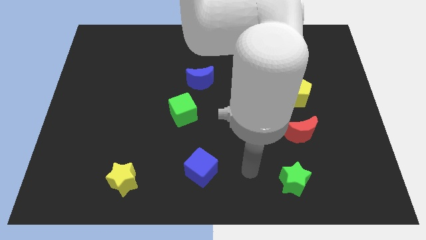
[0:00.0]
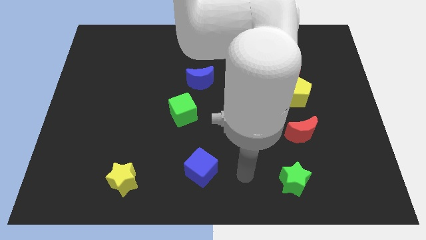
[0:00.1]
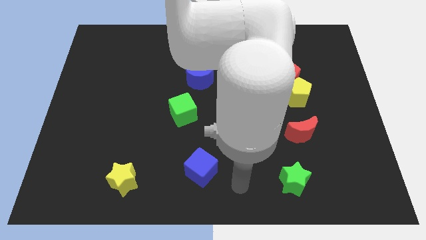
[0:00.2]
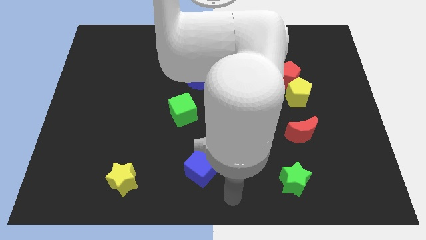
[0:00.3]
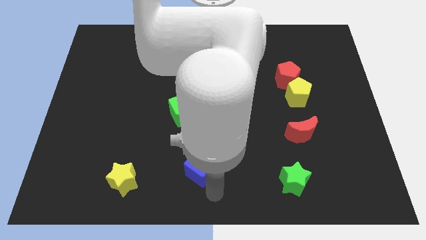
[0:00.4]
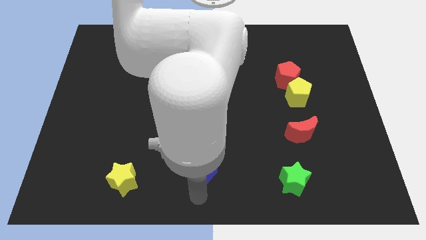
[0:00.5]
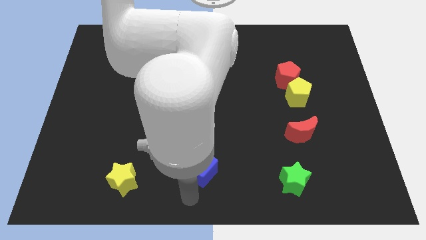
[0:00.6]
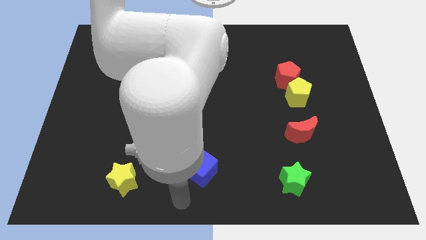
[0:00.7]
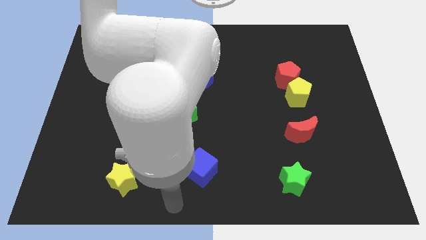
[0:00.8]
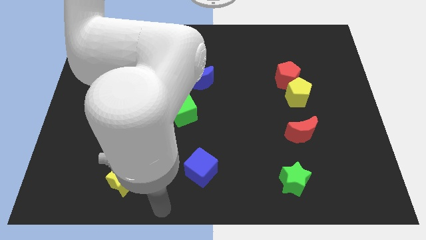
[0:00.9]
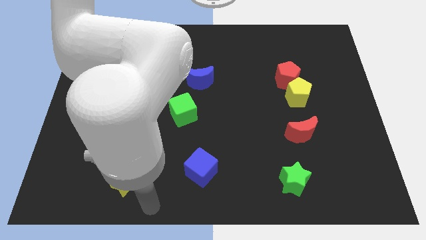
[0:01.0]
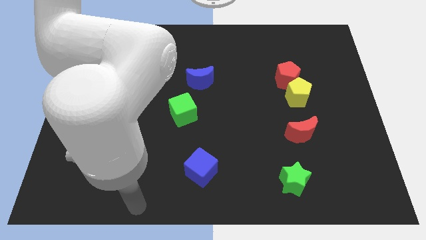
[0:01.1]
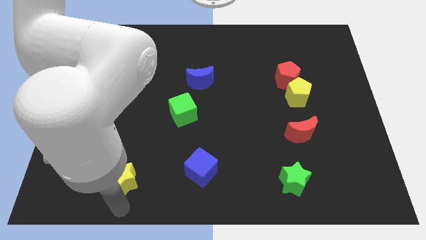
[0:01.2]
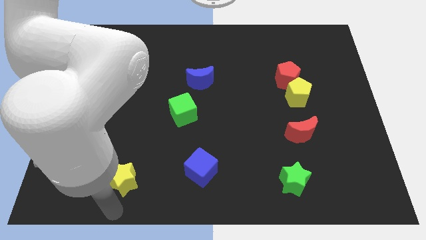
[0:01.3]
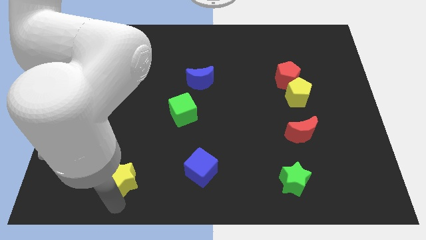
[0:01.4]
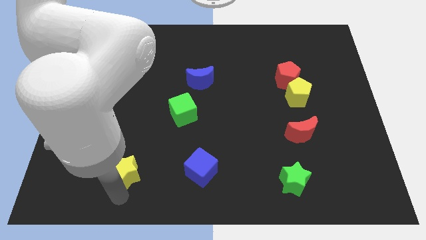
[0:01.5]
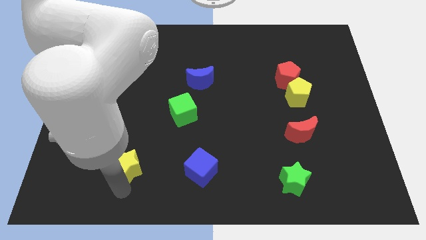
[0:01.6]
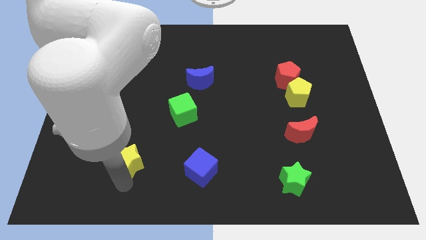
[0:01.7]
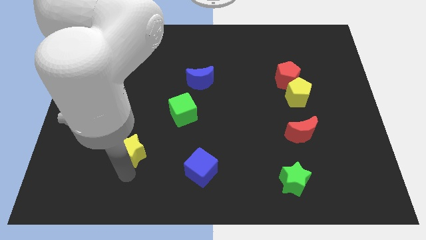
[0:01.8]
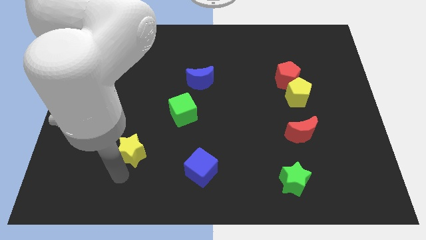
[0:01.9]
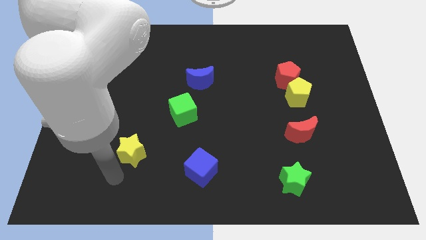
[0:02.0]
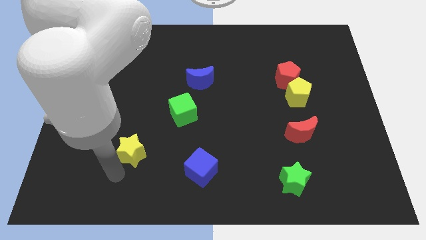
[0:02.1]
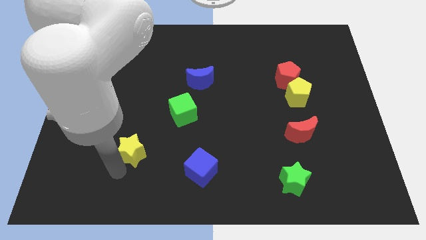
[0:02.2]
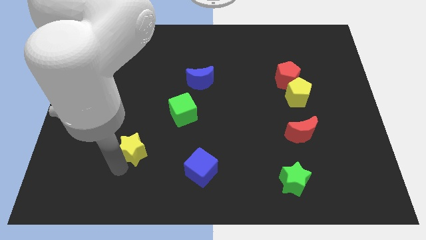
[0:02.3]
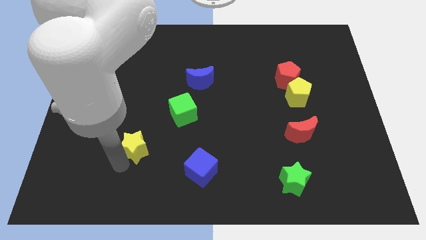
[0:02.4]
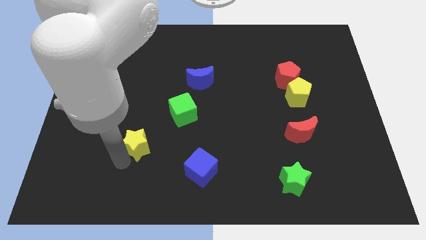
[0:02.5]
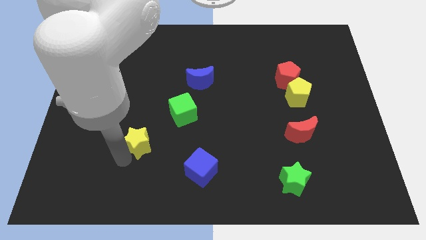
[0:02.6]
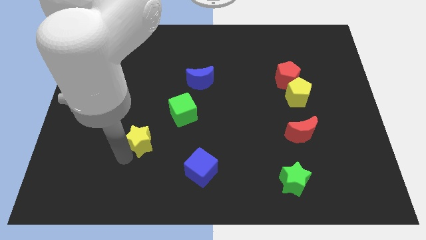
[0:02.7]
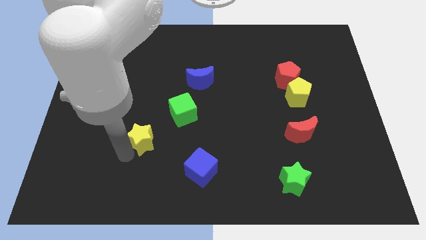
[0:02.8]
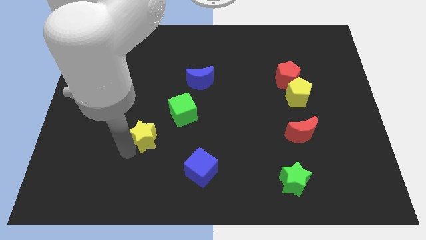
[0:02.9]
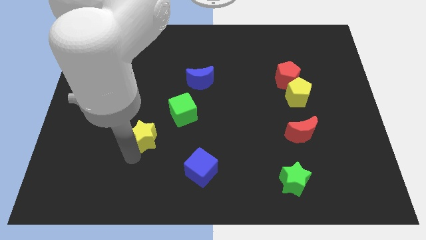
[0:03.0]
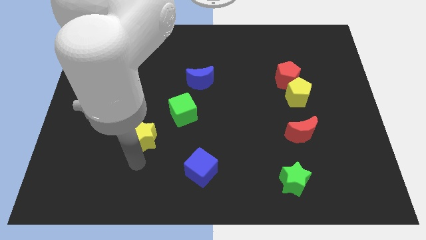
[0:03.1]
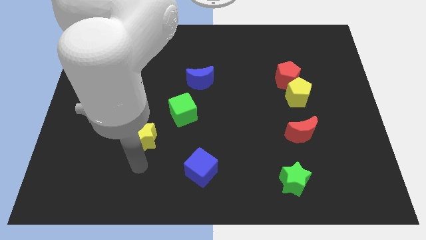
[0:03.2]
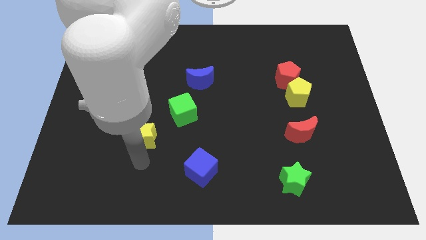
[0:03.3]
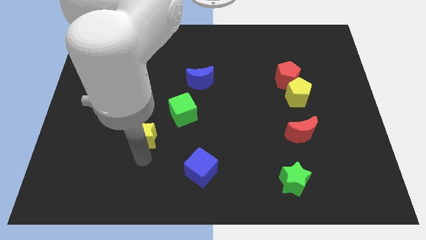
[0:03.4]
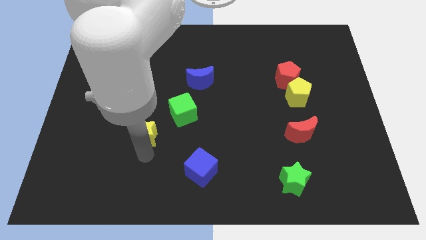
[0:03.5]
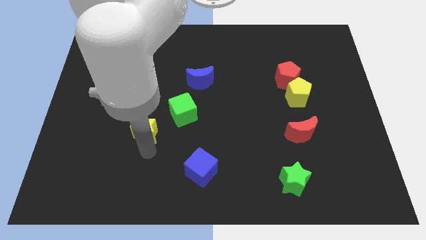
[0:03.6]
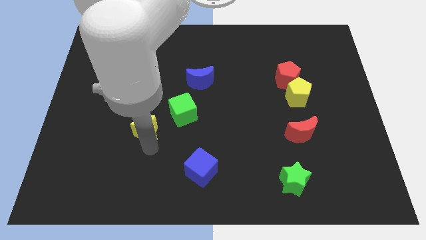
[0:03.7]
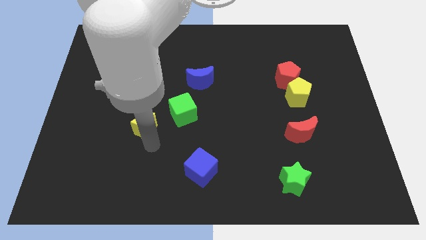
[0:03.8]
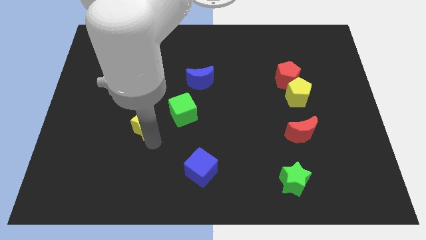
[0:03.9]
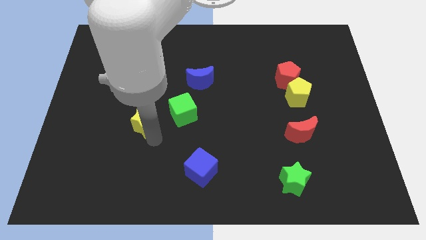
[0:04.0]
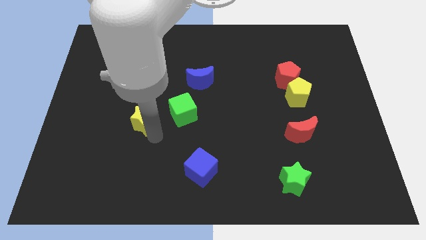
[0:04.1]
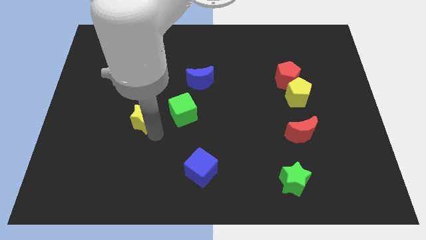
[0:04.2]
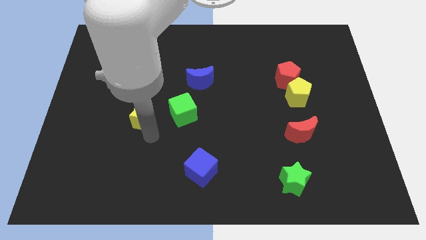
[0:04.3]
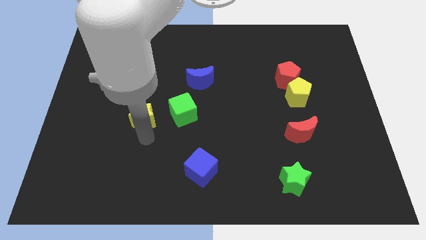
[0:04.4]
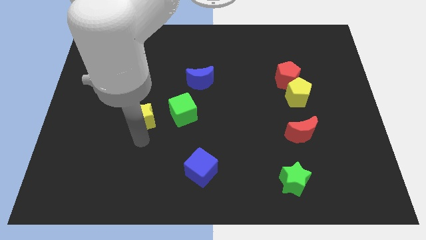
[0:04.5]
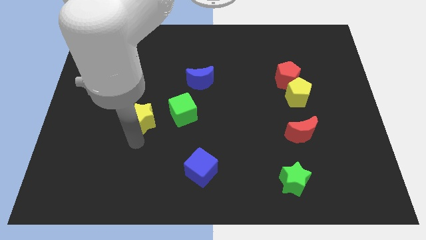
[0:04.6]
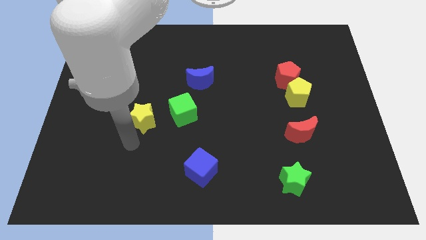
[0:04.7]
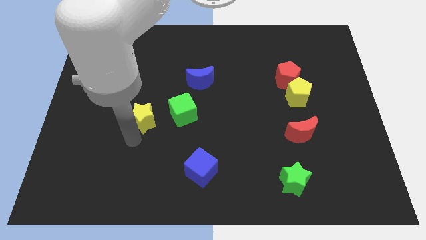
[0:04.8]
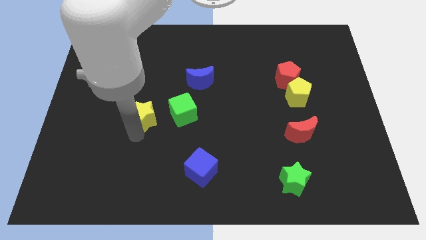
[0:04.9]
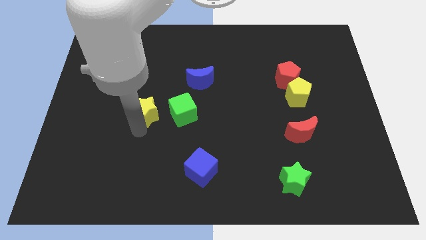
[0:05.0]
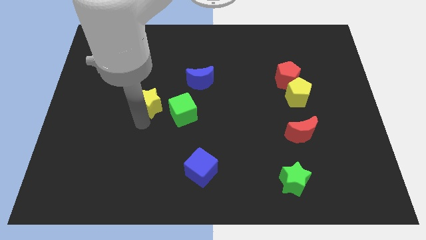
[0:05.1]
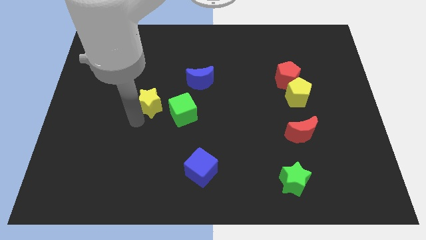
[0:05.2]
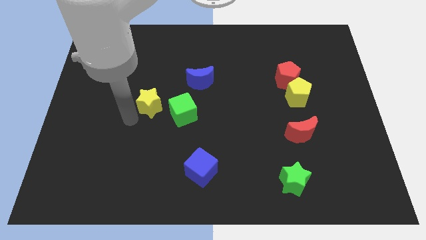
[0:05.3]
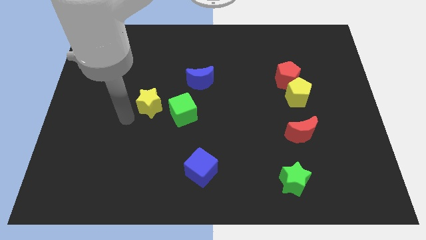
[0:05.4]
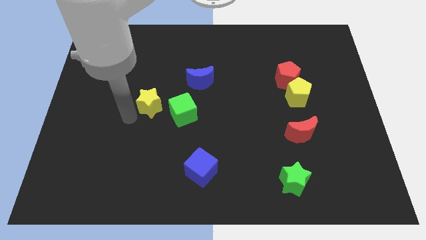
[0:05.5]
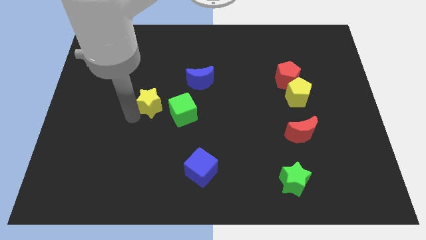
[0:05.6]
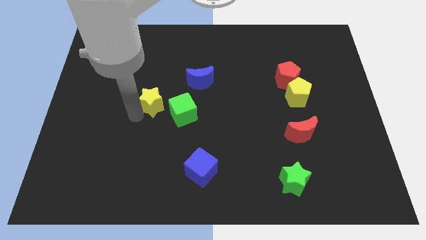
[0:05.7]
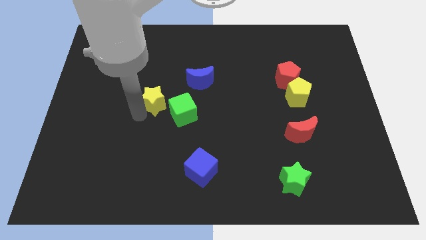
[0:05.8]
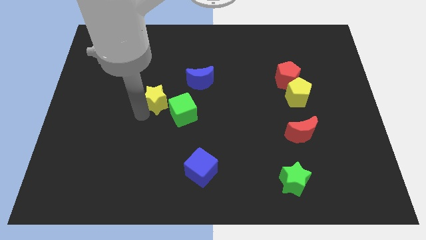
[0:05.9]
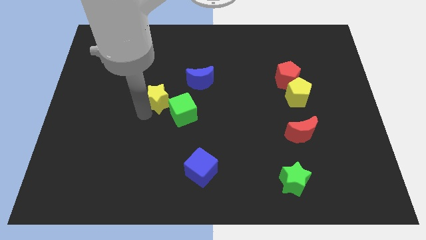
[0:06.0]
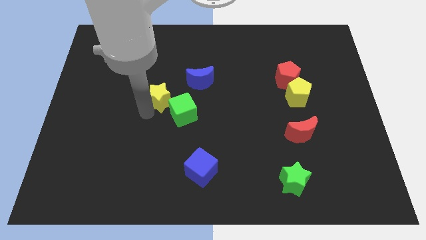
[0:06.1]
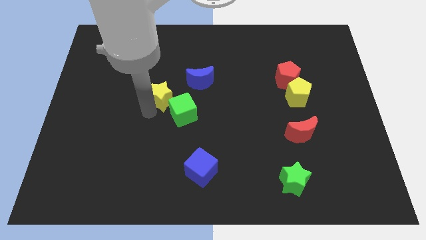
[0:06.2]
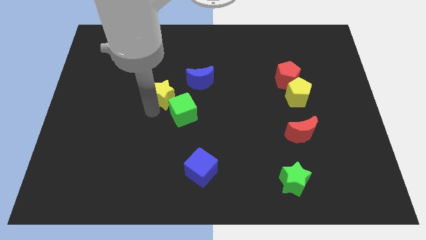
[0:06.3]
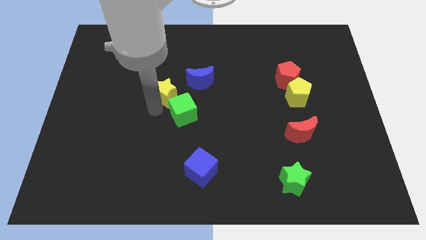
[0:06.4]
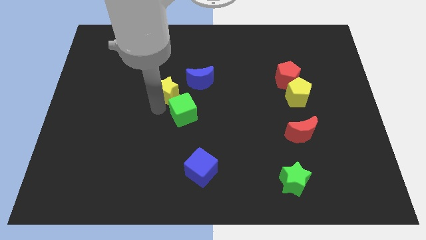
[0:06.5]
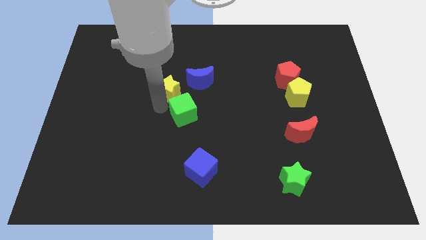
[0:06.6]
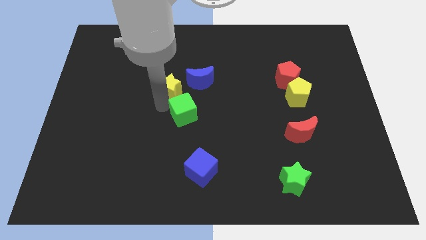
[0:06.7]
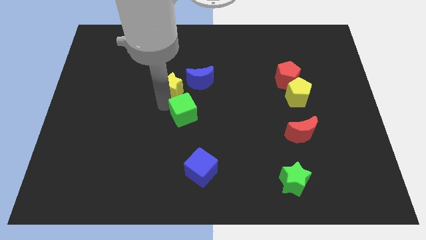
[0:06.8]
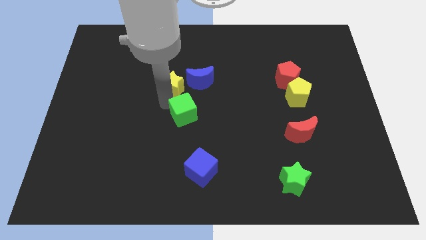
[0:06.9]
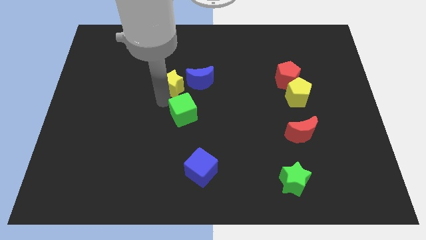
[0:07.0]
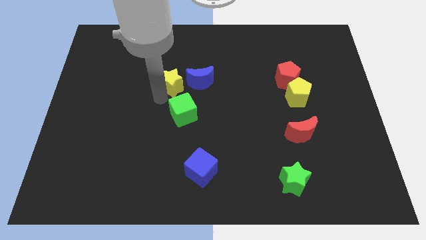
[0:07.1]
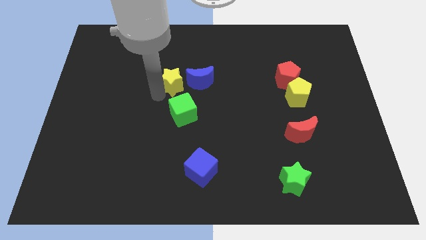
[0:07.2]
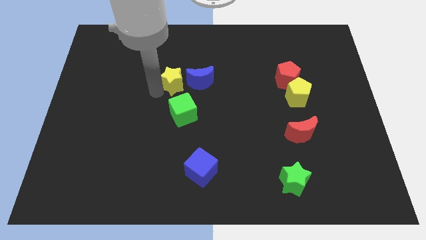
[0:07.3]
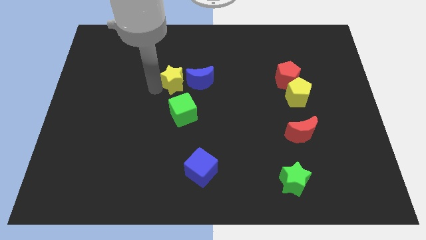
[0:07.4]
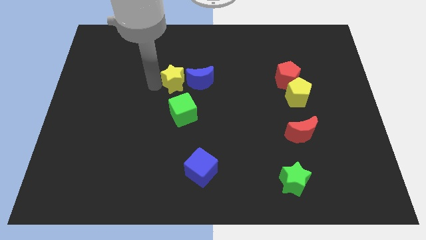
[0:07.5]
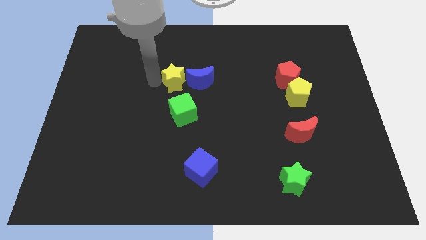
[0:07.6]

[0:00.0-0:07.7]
move the yellow star to the blue moon
